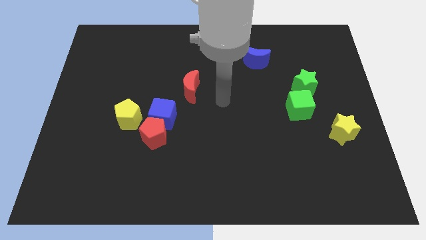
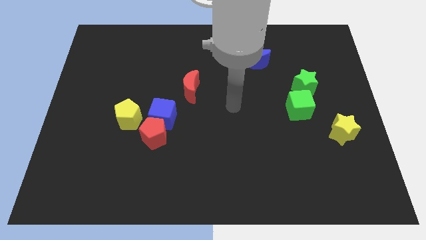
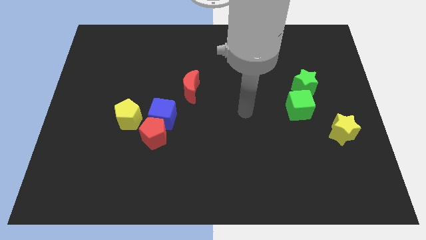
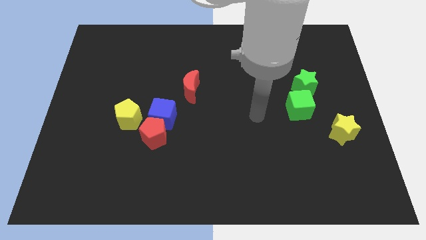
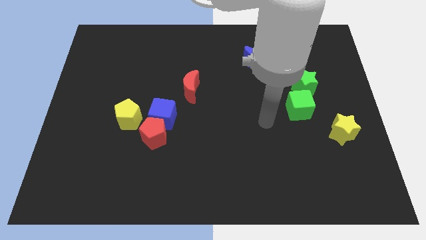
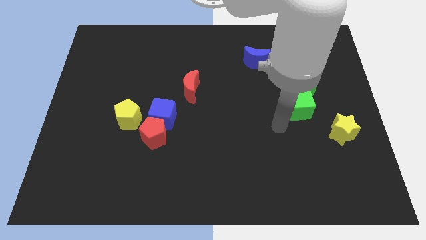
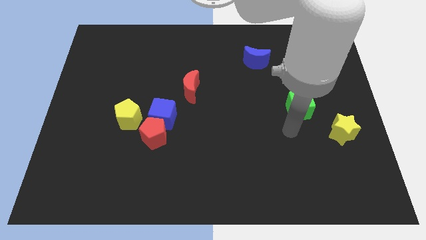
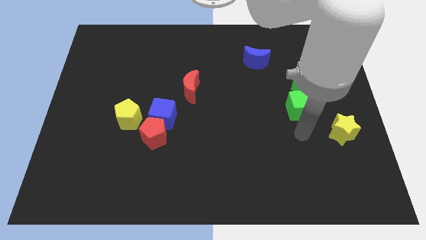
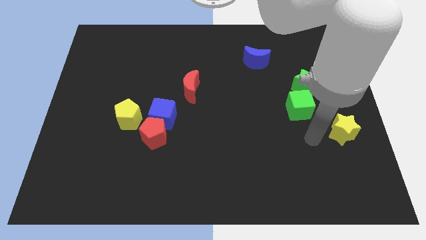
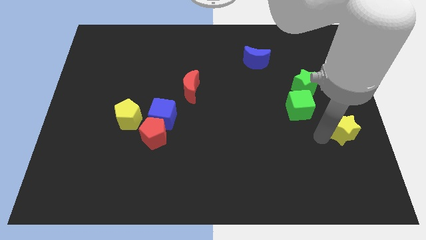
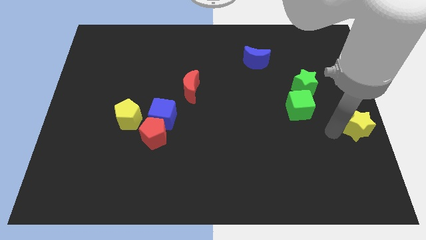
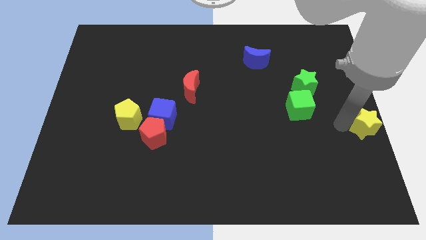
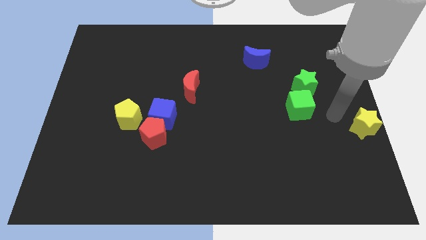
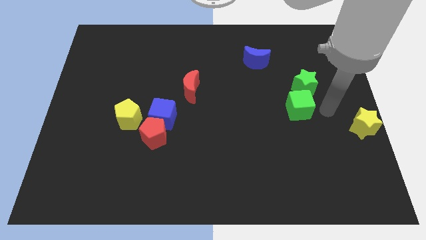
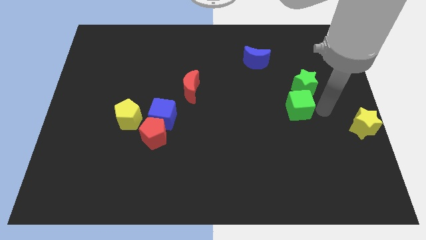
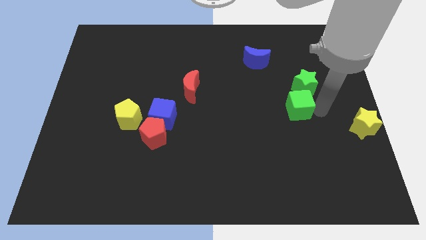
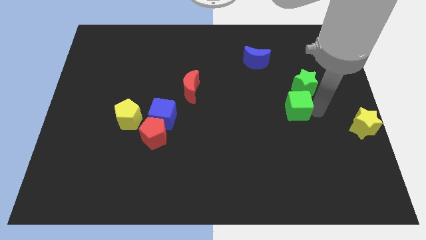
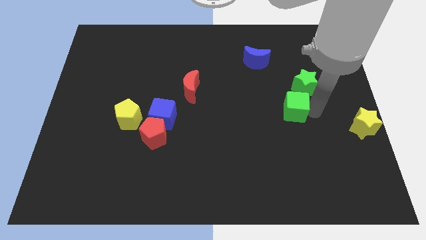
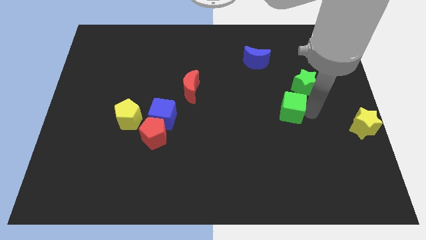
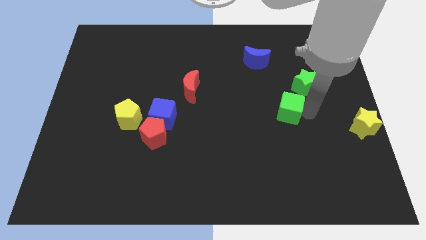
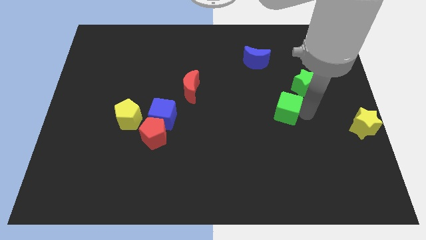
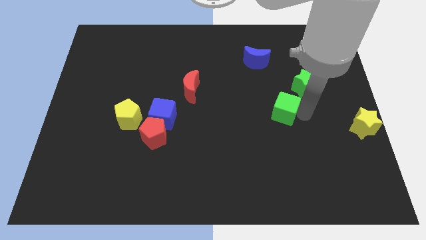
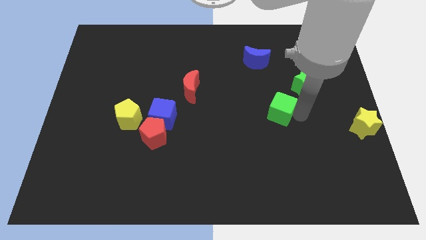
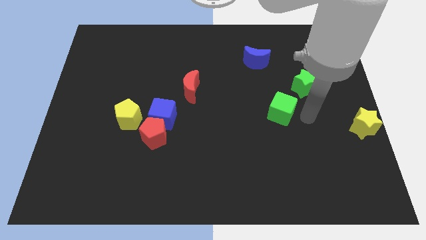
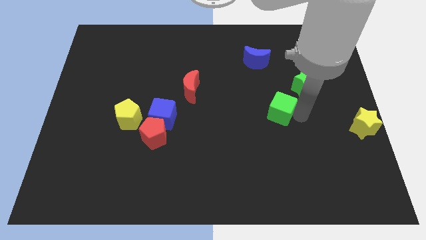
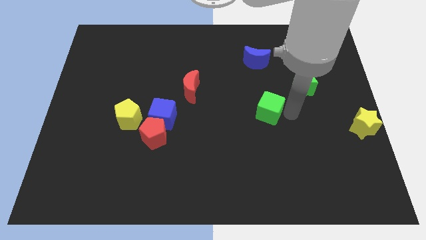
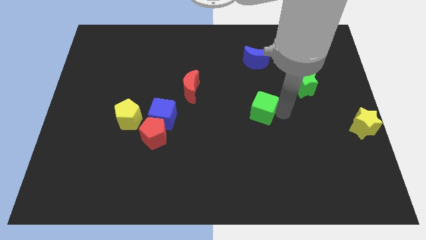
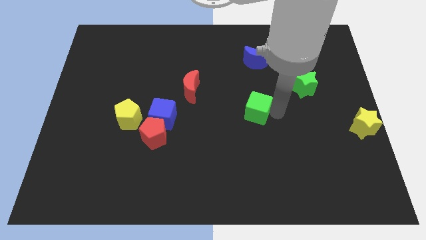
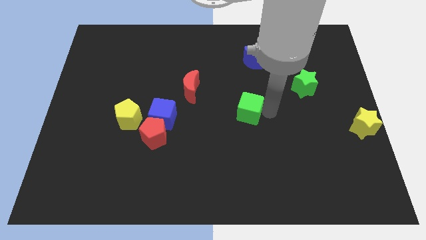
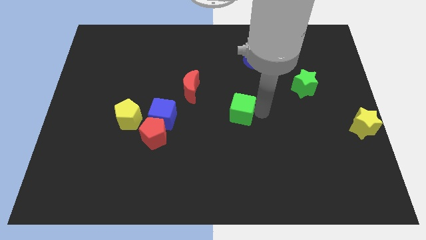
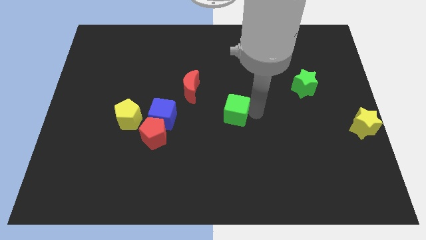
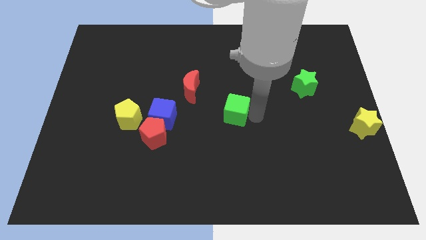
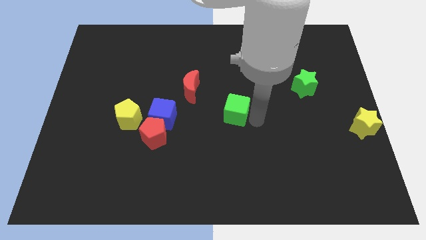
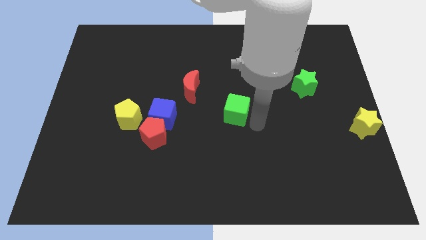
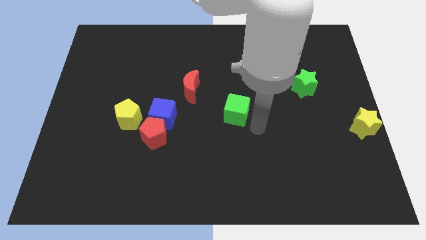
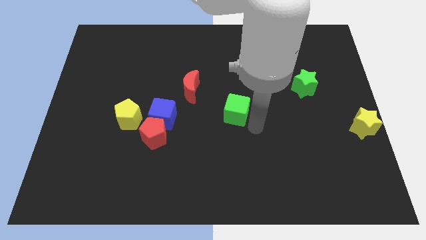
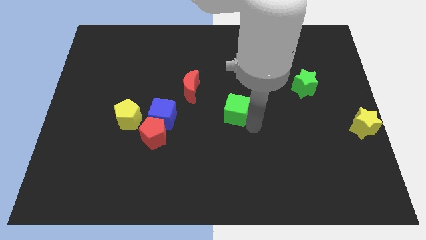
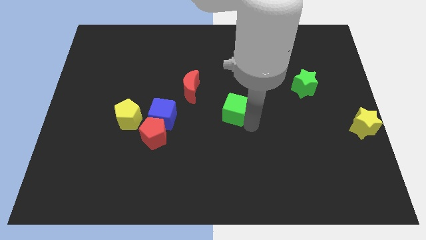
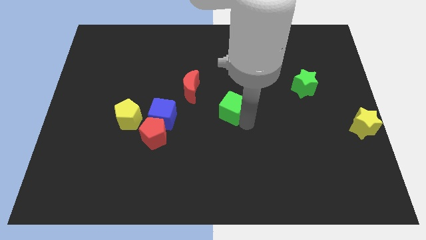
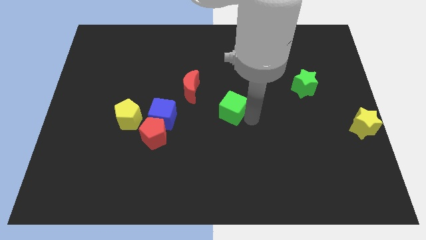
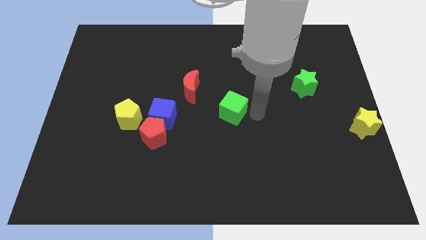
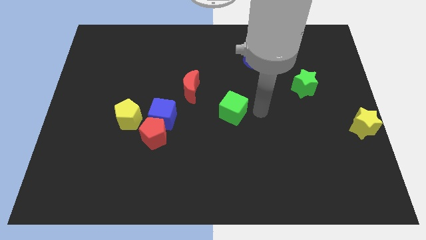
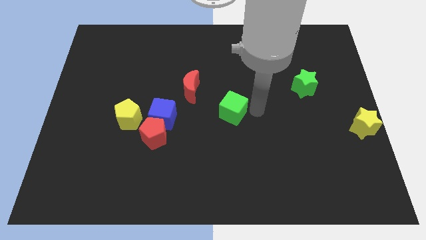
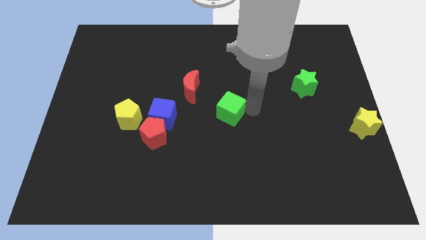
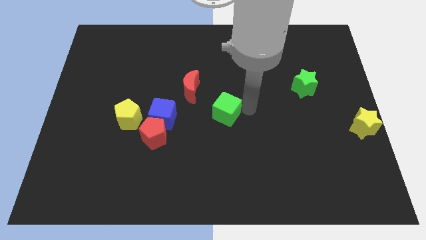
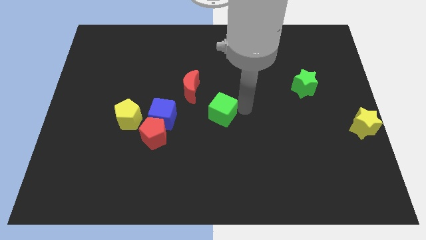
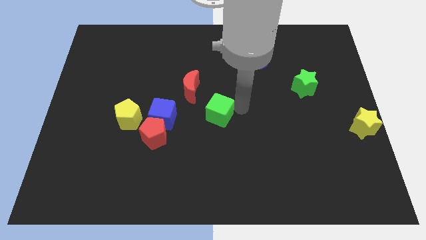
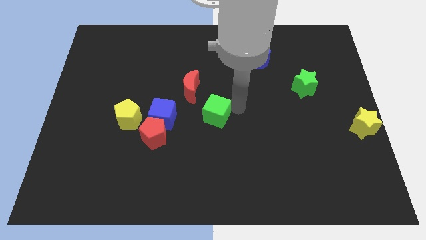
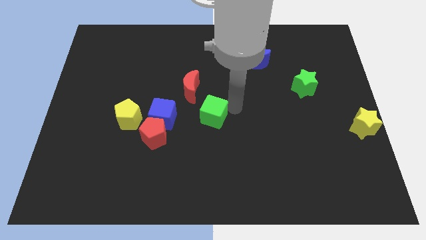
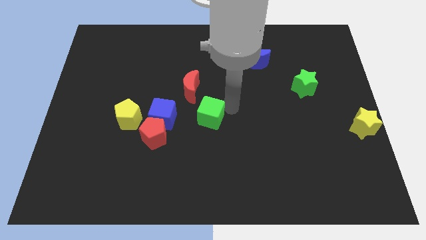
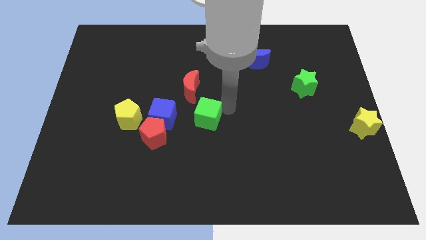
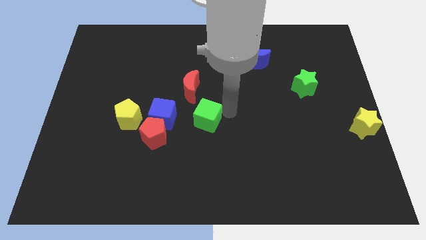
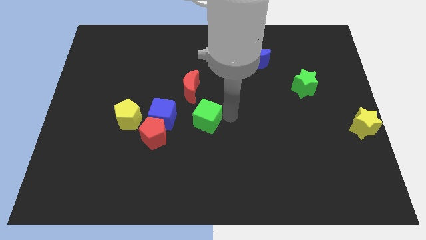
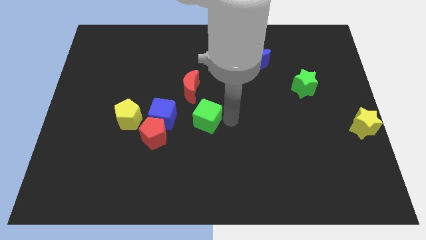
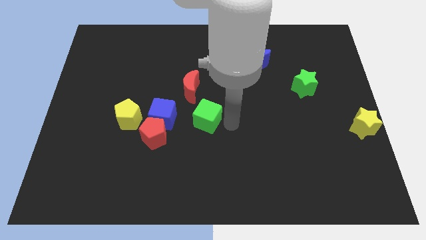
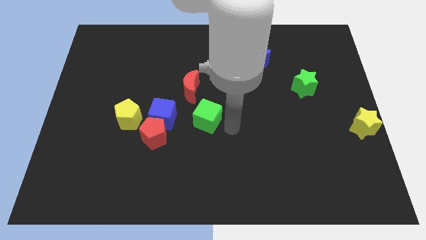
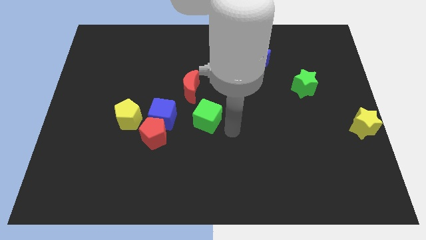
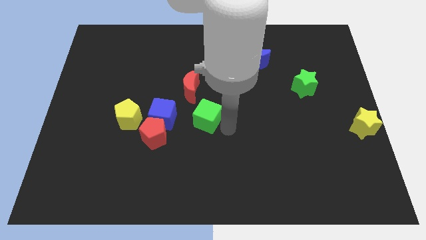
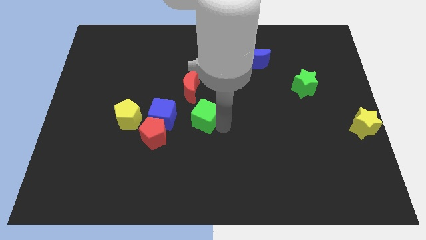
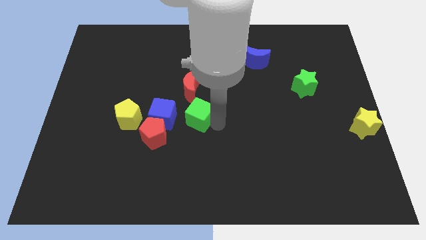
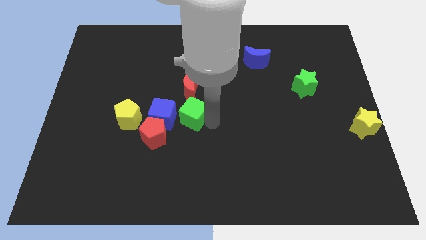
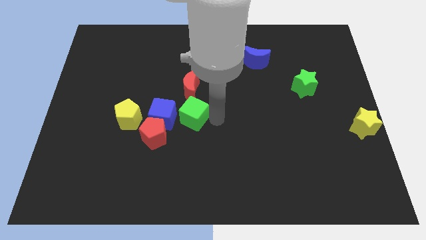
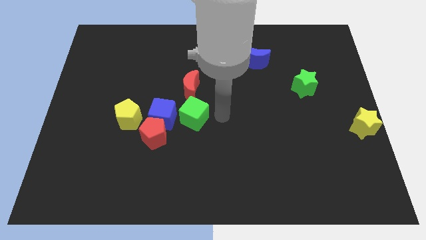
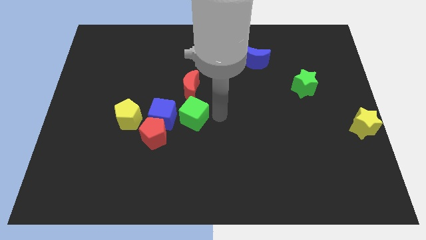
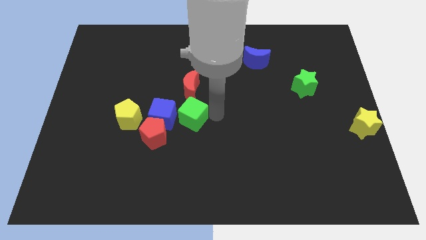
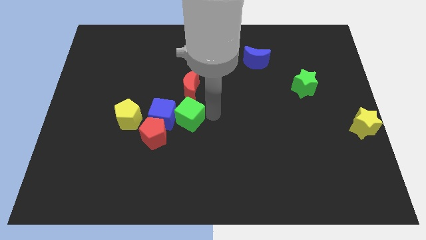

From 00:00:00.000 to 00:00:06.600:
move the green cube next to the blue cube

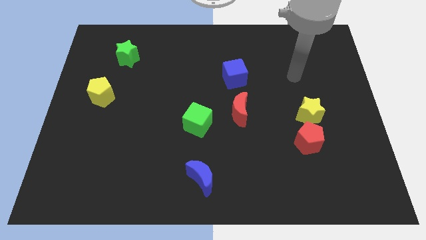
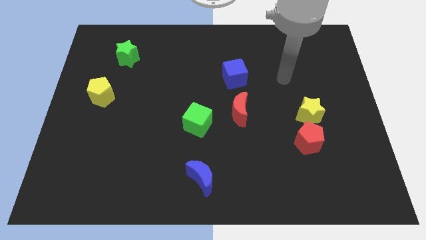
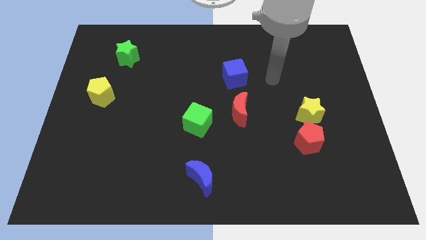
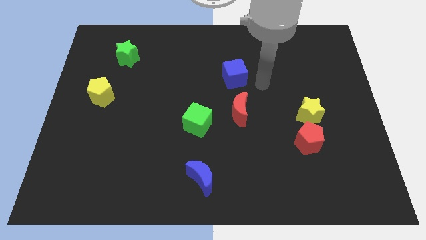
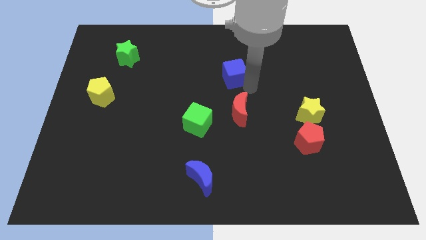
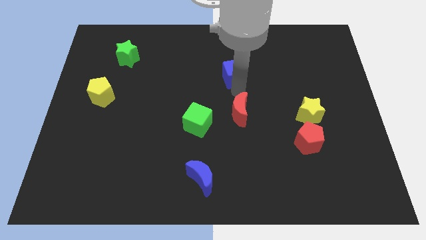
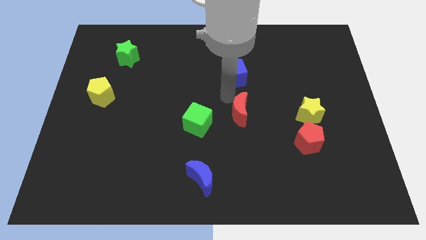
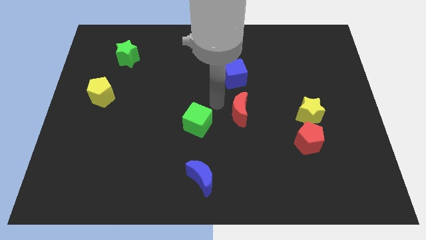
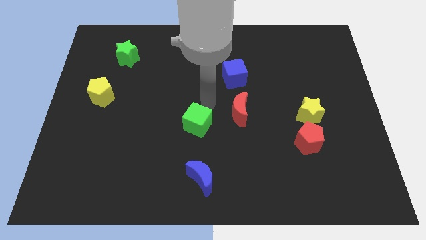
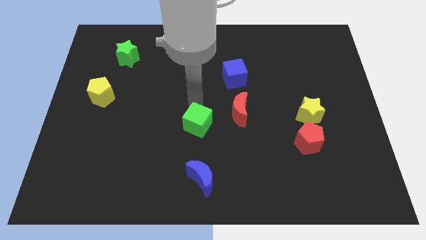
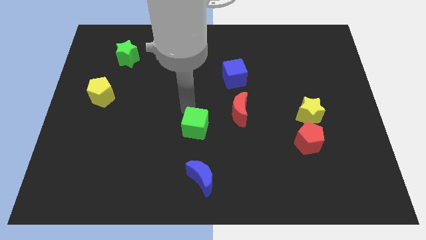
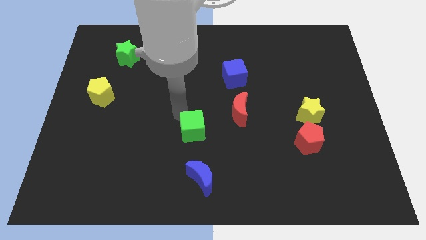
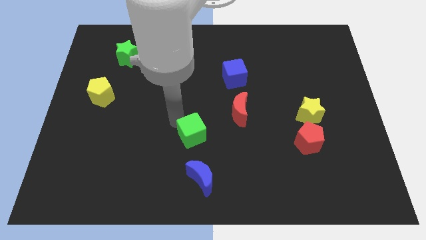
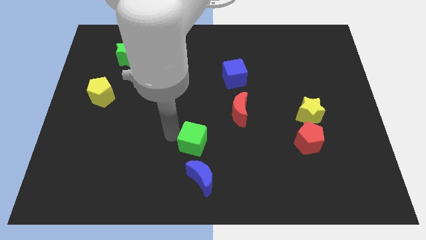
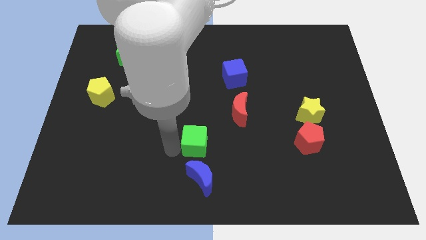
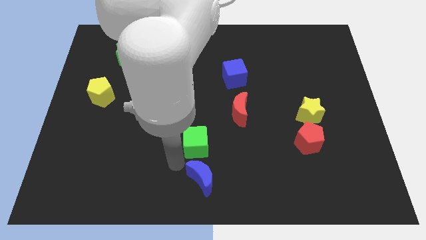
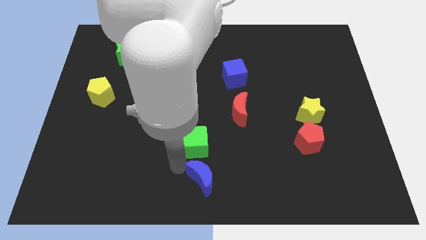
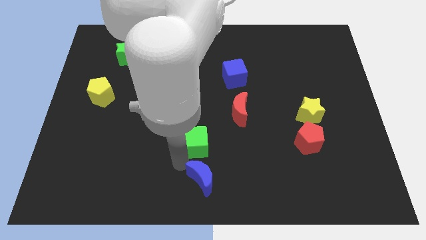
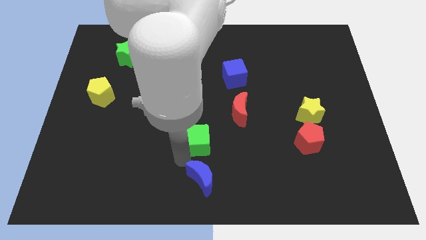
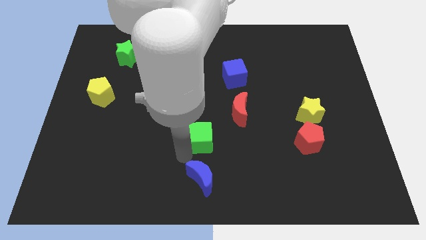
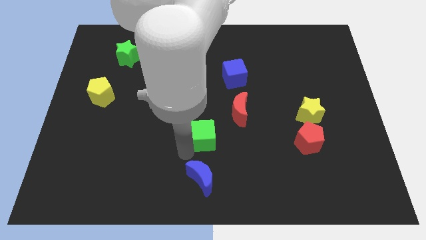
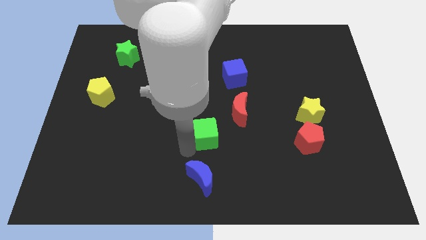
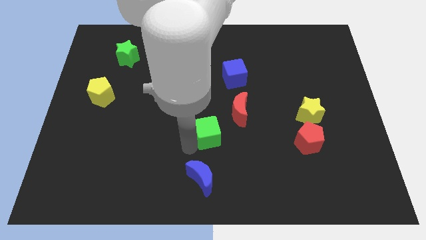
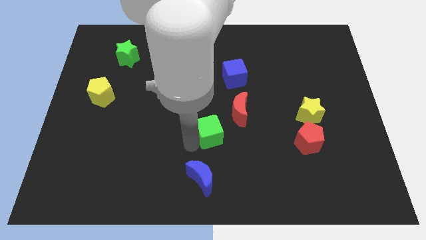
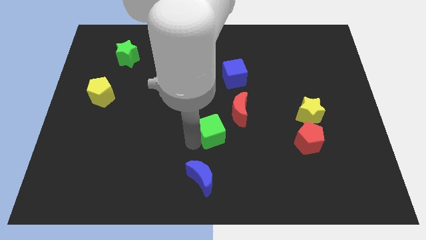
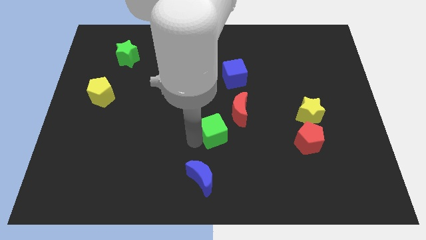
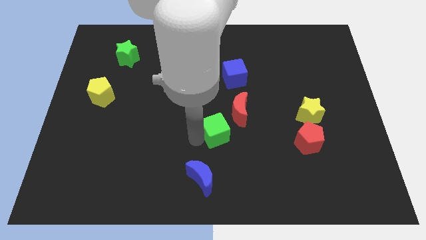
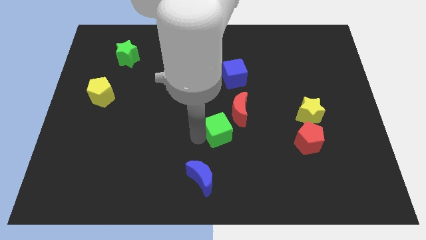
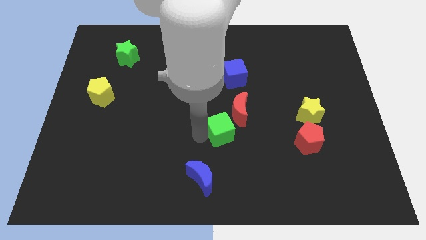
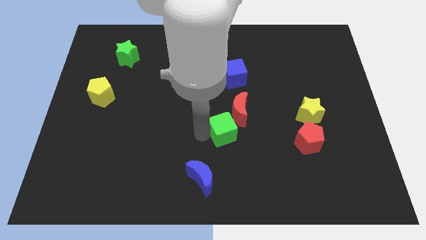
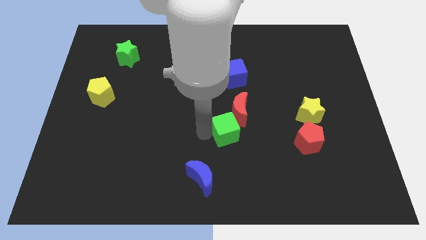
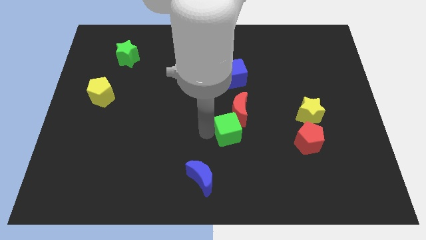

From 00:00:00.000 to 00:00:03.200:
put the green cube close to the red moon
